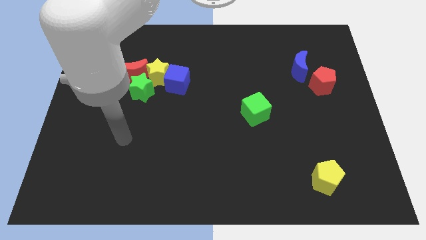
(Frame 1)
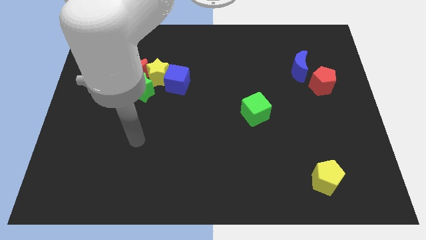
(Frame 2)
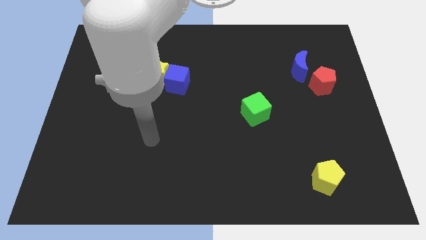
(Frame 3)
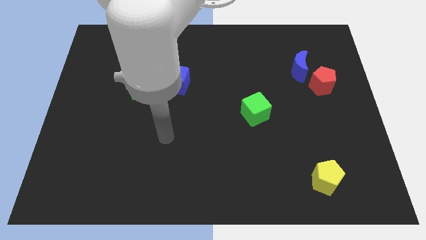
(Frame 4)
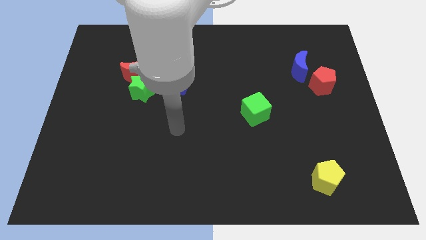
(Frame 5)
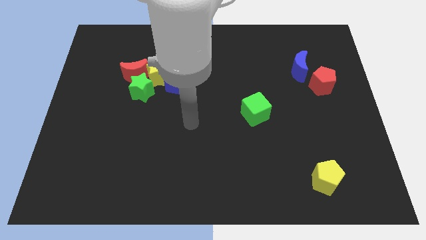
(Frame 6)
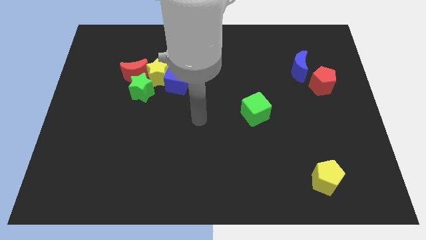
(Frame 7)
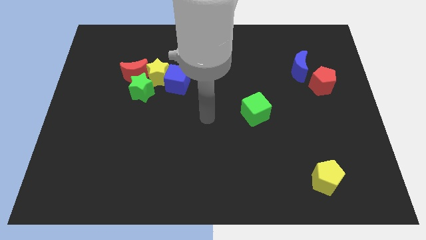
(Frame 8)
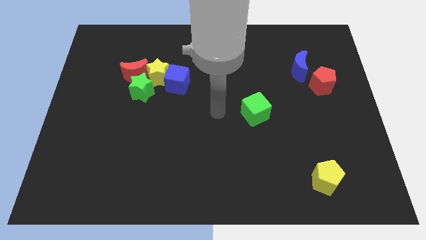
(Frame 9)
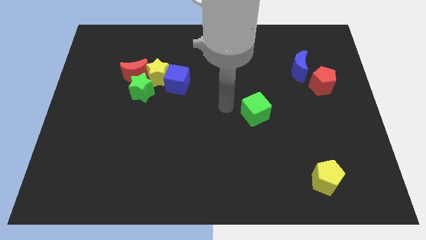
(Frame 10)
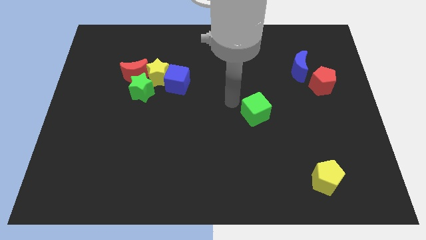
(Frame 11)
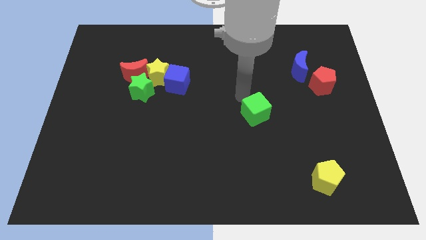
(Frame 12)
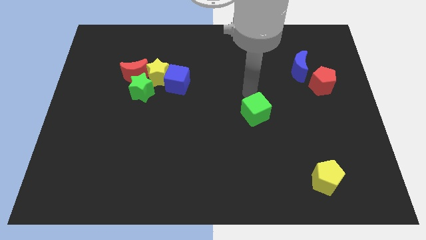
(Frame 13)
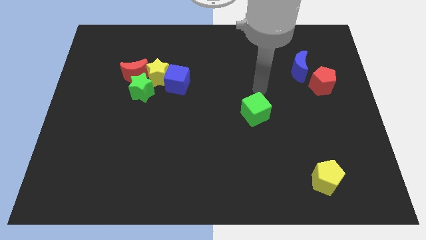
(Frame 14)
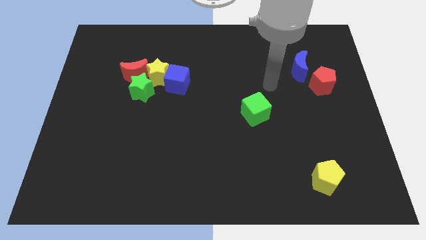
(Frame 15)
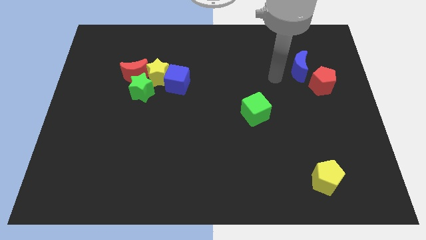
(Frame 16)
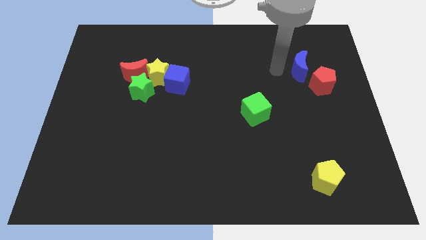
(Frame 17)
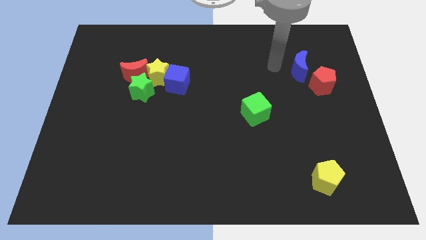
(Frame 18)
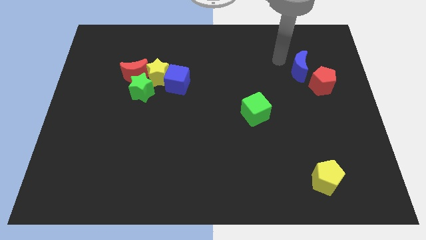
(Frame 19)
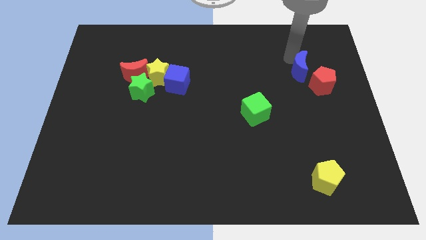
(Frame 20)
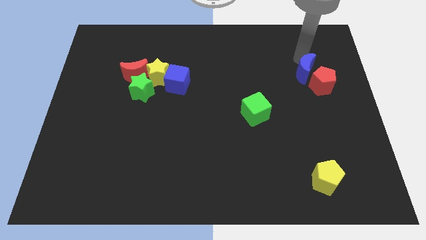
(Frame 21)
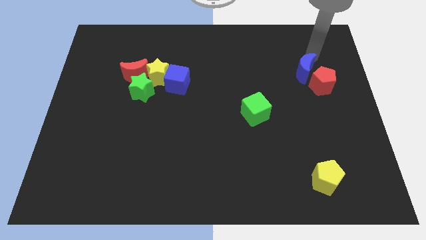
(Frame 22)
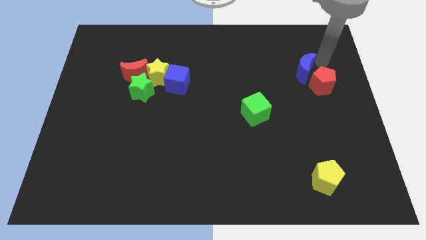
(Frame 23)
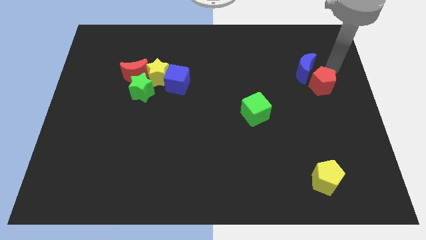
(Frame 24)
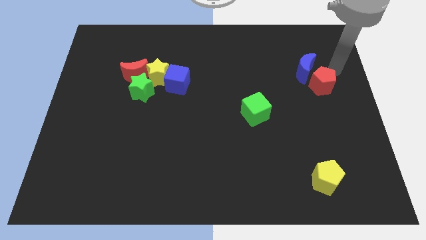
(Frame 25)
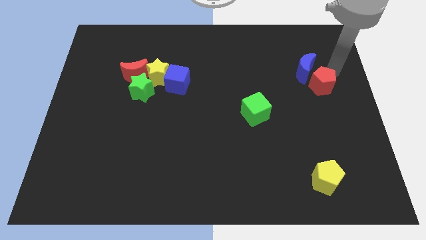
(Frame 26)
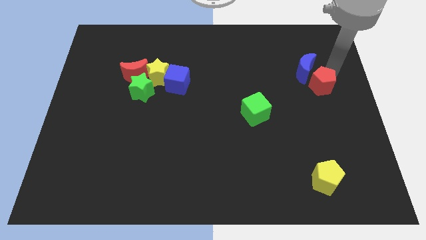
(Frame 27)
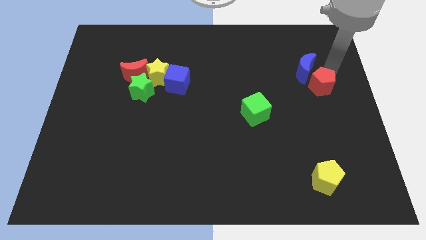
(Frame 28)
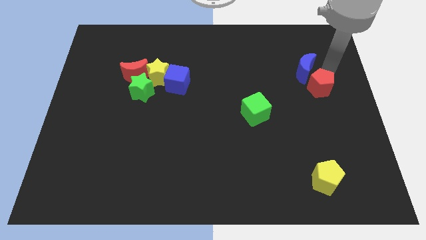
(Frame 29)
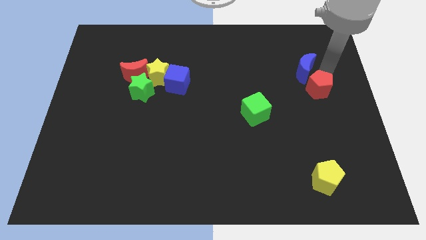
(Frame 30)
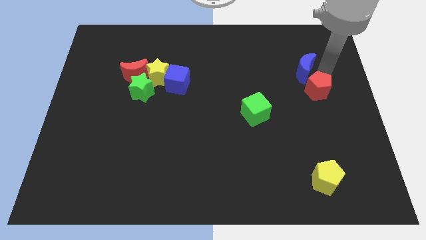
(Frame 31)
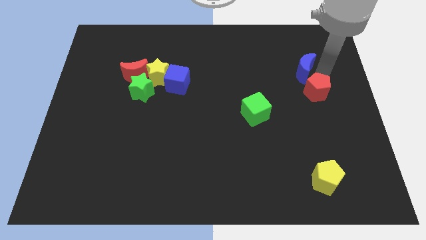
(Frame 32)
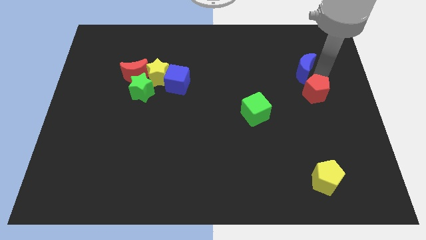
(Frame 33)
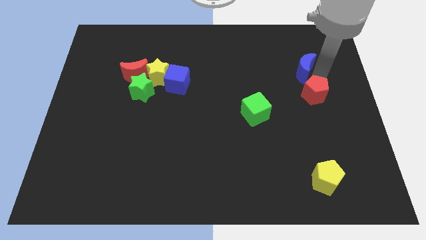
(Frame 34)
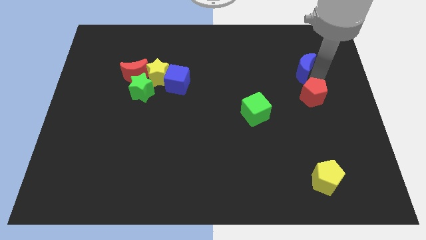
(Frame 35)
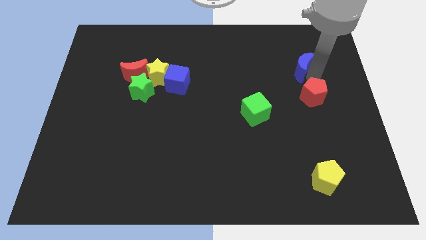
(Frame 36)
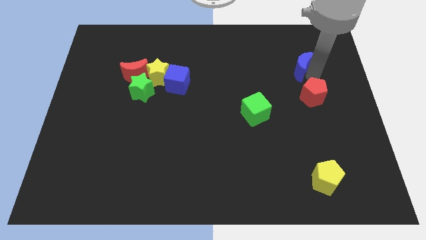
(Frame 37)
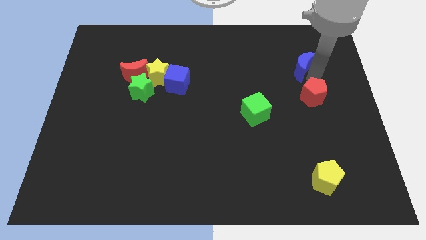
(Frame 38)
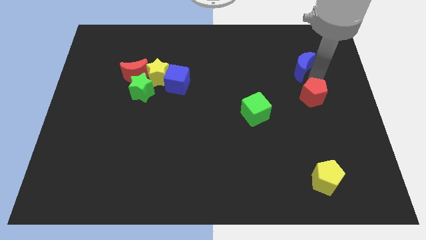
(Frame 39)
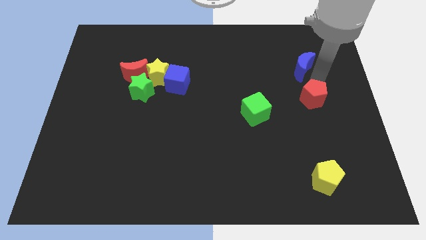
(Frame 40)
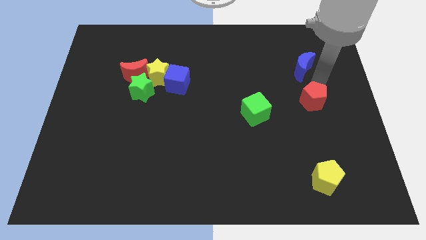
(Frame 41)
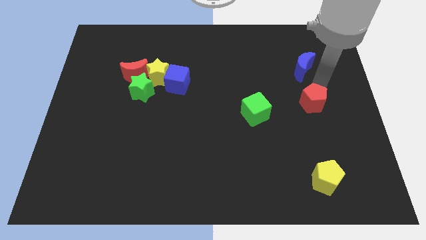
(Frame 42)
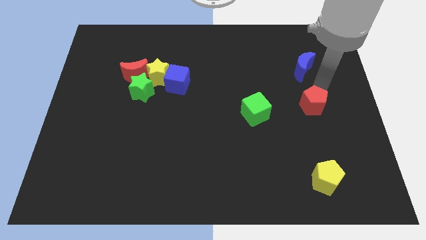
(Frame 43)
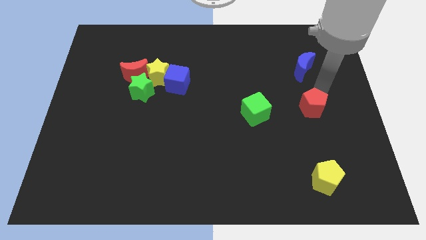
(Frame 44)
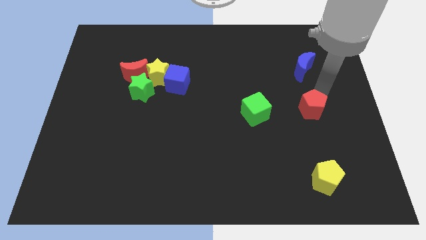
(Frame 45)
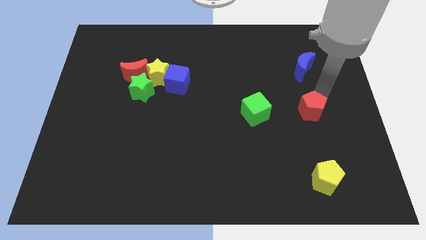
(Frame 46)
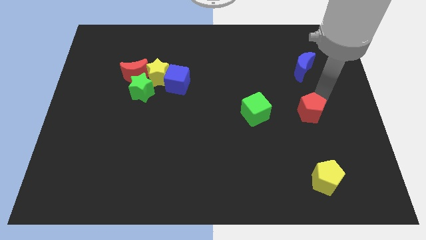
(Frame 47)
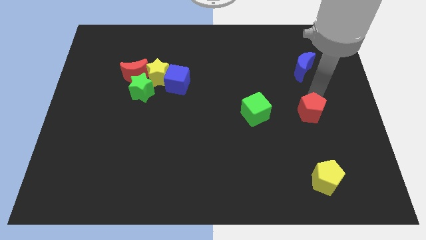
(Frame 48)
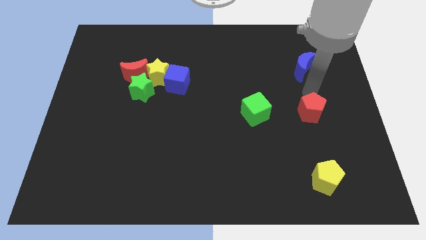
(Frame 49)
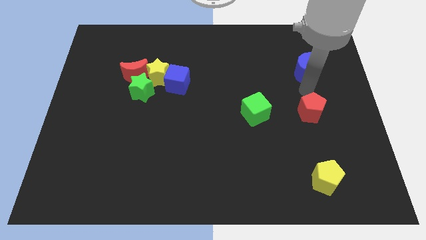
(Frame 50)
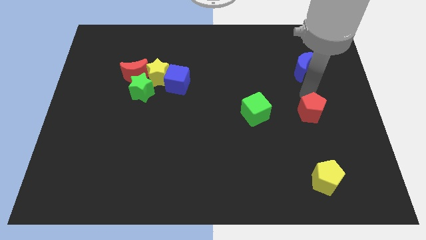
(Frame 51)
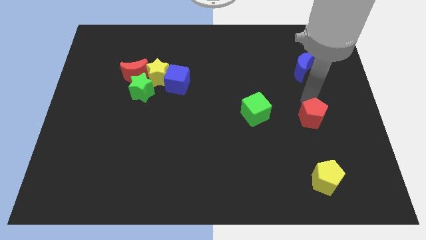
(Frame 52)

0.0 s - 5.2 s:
push the red pentagon above the yellow pentagon

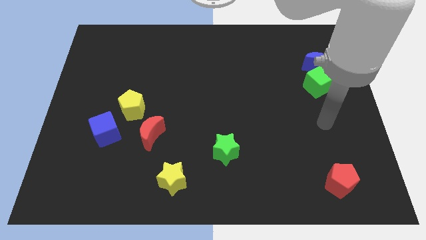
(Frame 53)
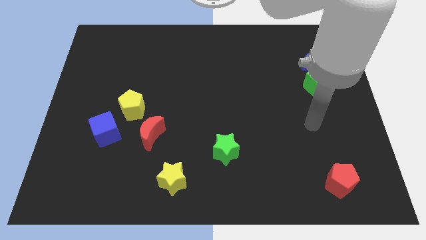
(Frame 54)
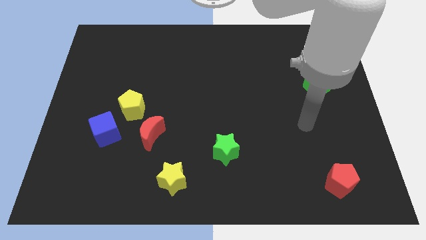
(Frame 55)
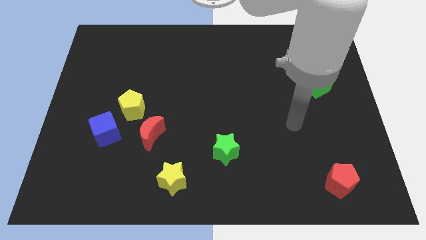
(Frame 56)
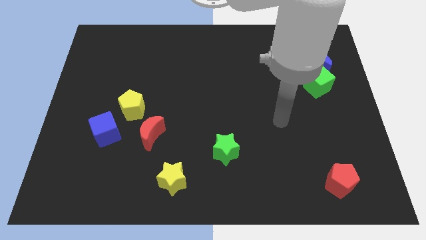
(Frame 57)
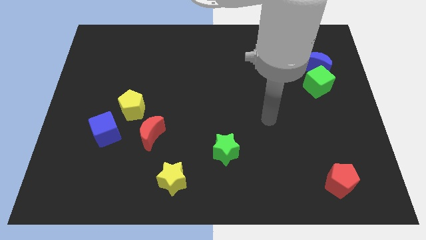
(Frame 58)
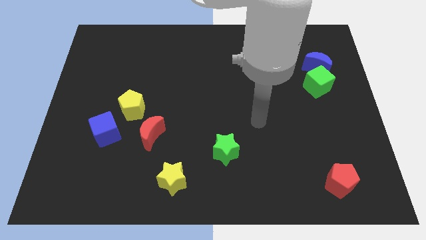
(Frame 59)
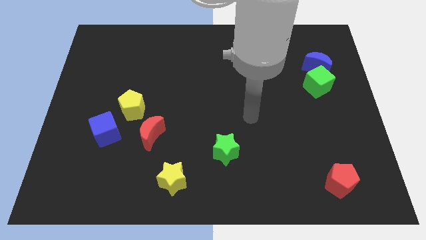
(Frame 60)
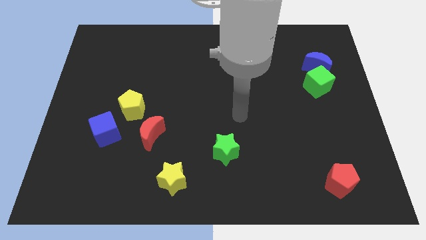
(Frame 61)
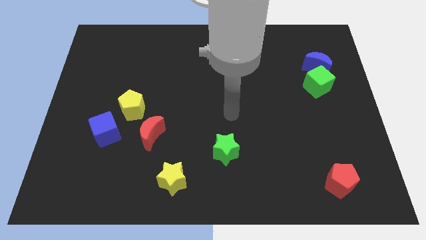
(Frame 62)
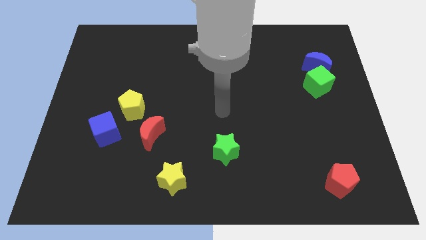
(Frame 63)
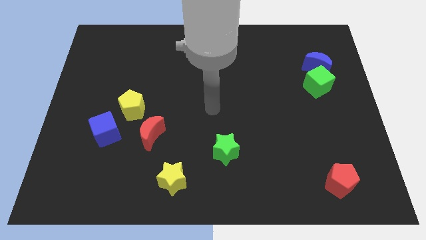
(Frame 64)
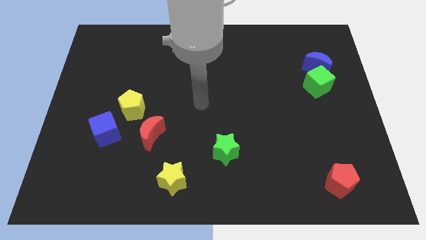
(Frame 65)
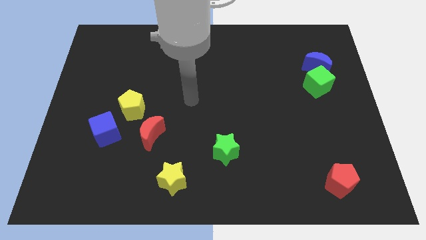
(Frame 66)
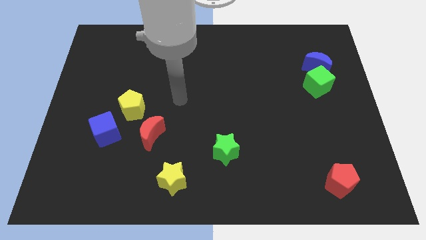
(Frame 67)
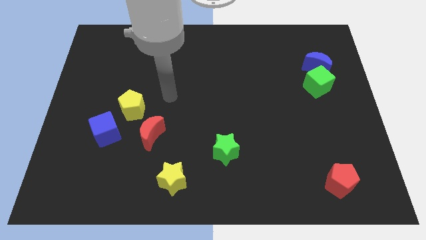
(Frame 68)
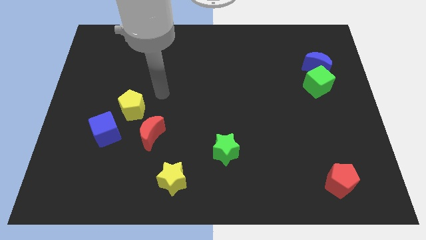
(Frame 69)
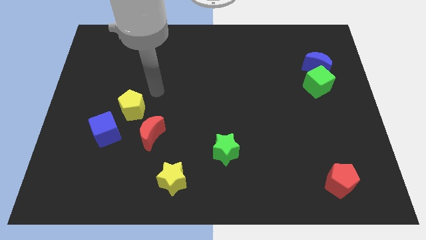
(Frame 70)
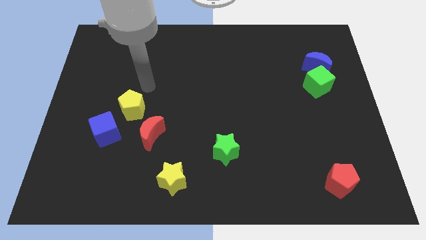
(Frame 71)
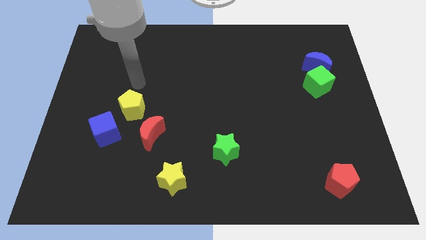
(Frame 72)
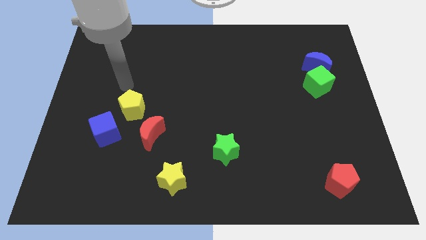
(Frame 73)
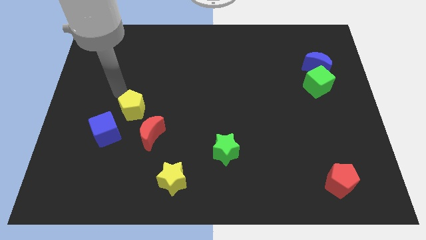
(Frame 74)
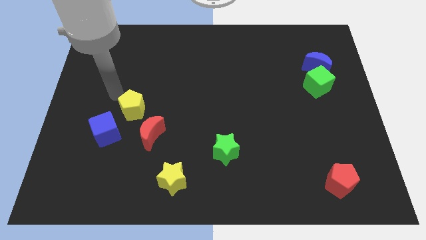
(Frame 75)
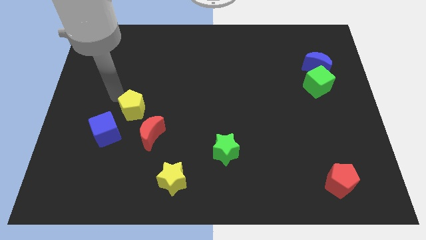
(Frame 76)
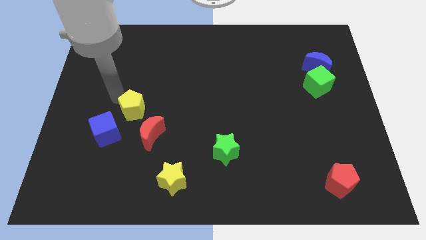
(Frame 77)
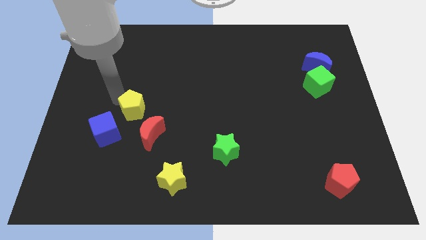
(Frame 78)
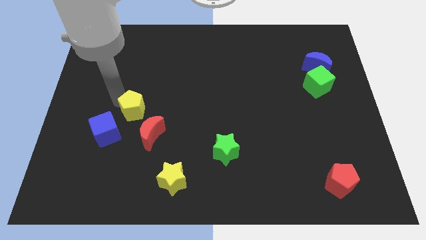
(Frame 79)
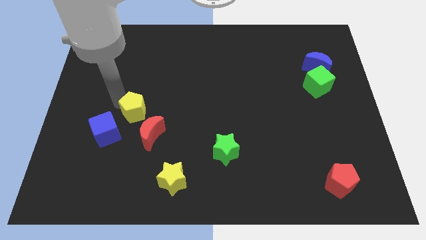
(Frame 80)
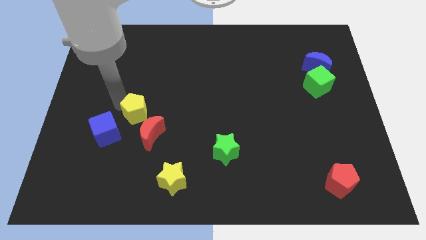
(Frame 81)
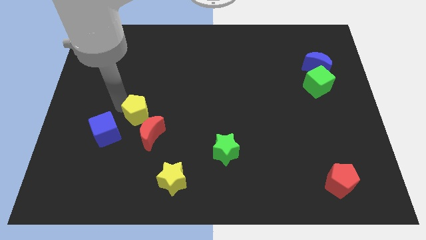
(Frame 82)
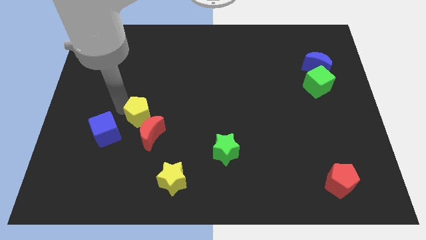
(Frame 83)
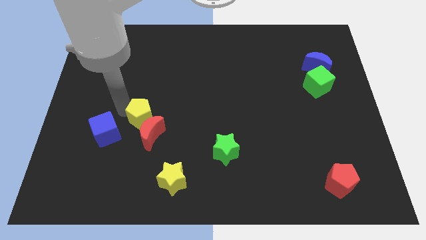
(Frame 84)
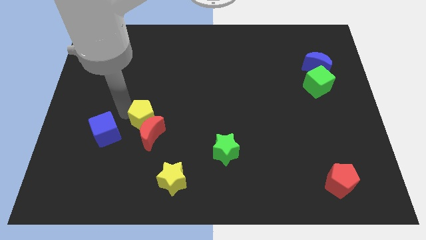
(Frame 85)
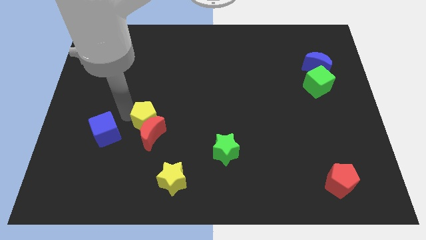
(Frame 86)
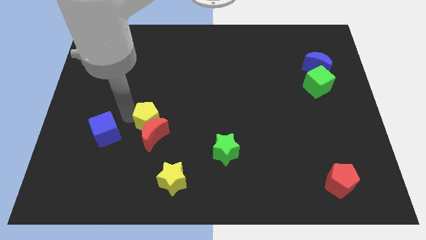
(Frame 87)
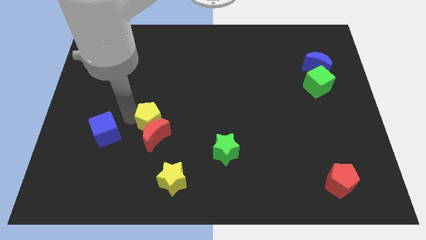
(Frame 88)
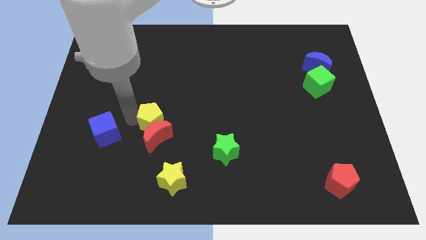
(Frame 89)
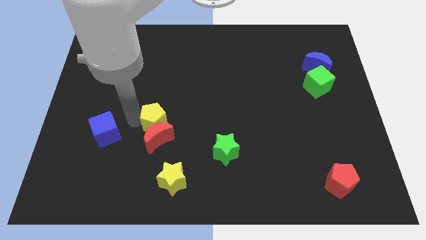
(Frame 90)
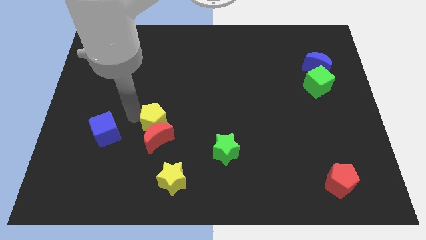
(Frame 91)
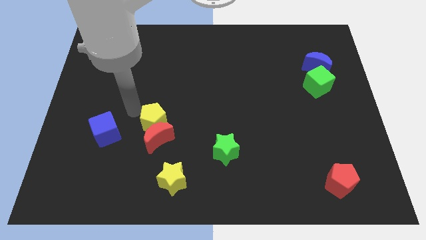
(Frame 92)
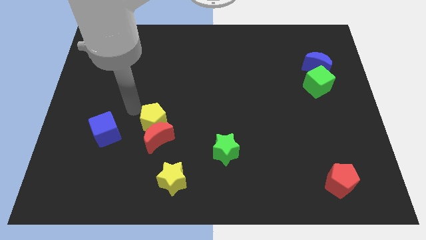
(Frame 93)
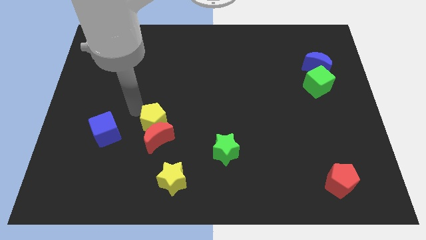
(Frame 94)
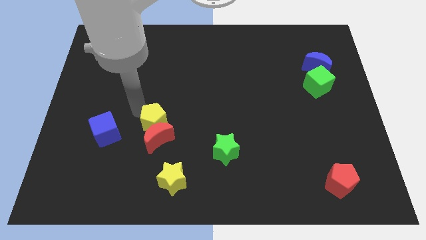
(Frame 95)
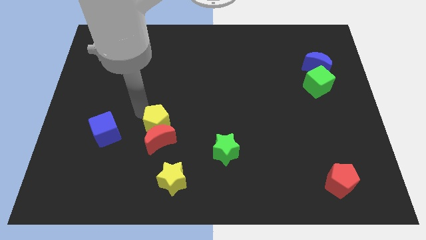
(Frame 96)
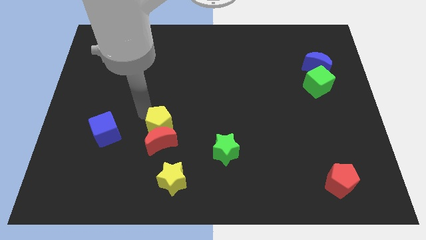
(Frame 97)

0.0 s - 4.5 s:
put the yellow pentagon to the top of the yellow star
